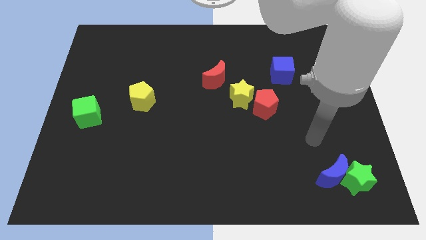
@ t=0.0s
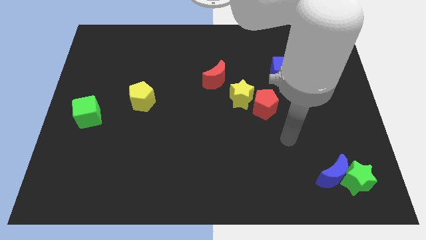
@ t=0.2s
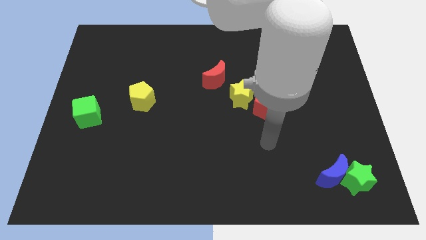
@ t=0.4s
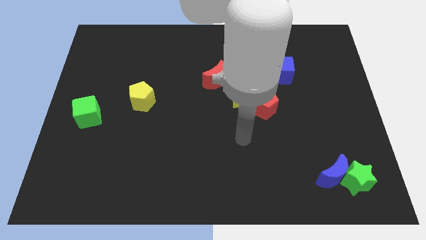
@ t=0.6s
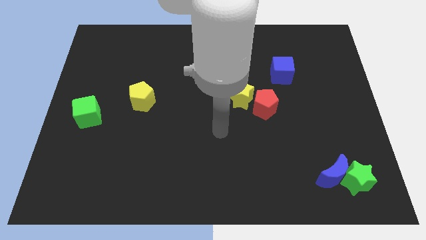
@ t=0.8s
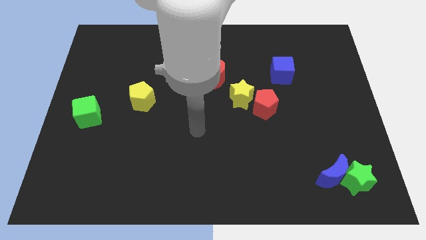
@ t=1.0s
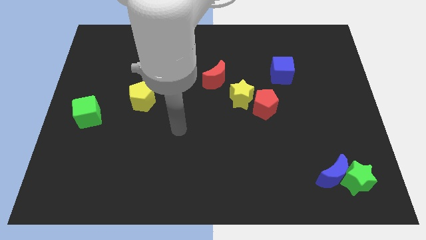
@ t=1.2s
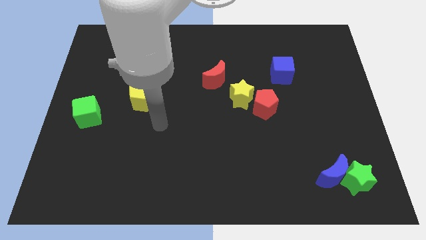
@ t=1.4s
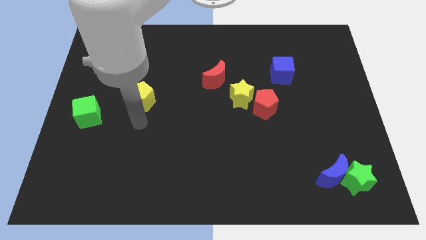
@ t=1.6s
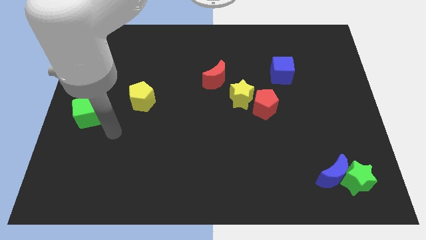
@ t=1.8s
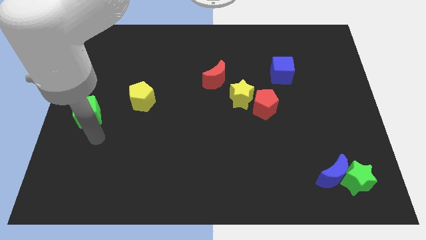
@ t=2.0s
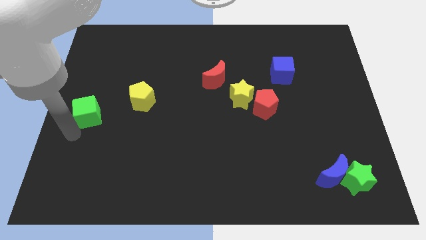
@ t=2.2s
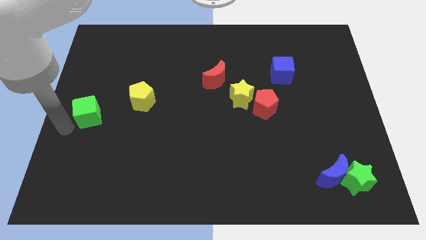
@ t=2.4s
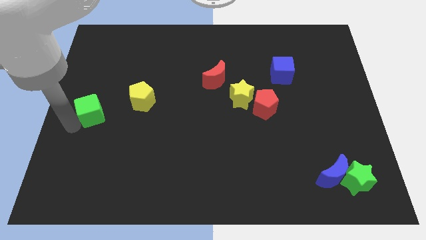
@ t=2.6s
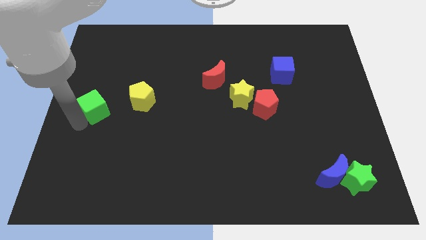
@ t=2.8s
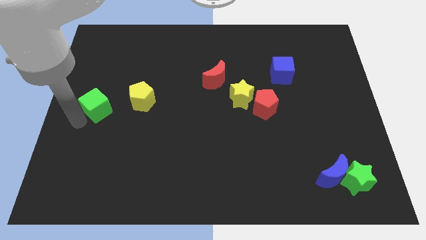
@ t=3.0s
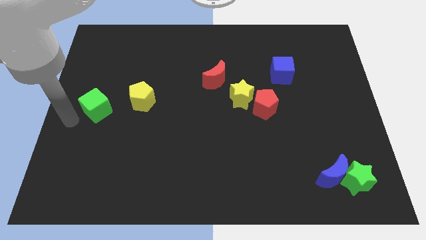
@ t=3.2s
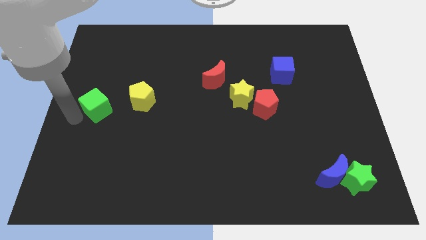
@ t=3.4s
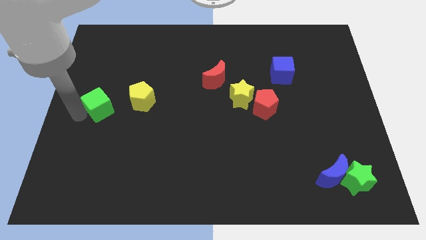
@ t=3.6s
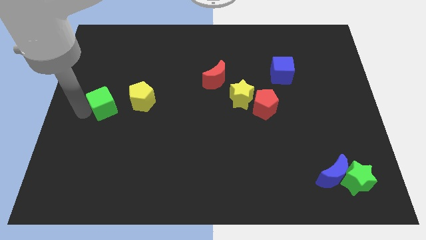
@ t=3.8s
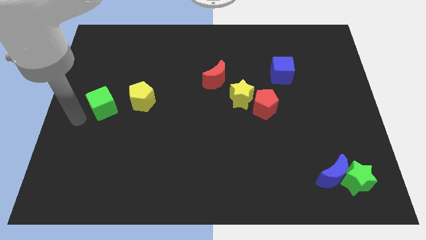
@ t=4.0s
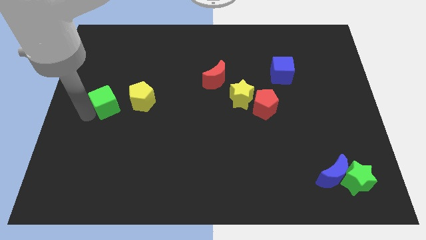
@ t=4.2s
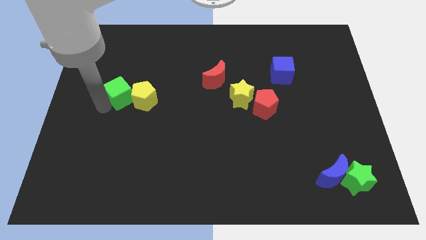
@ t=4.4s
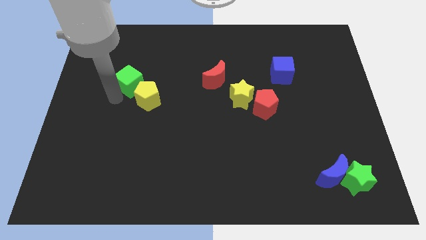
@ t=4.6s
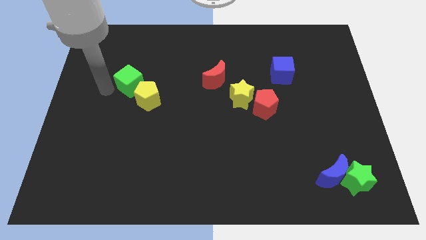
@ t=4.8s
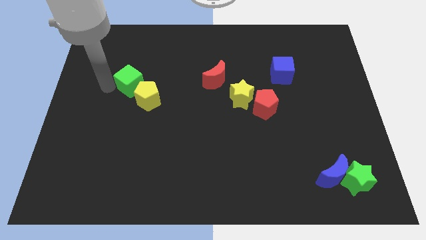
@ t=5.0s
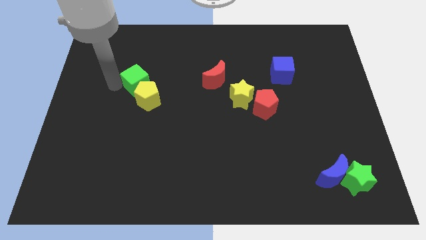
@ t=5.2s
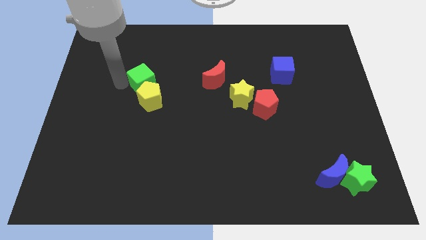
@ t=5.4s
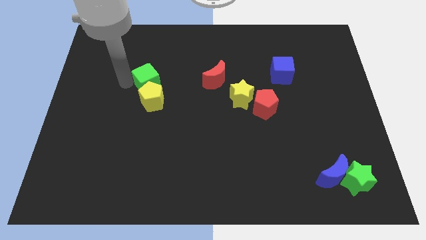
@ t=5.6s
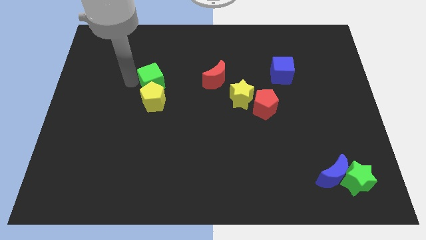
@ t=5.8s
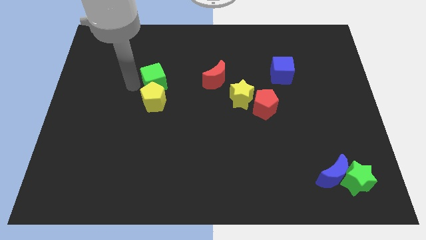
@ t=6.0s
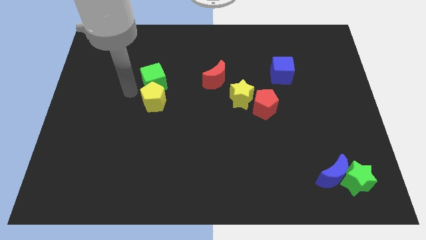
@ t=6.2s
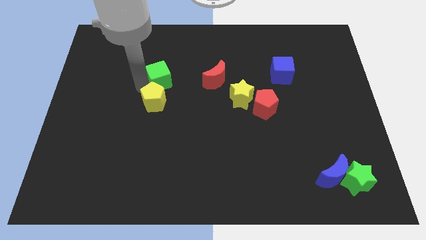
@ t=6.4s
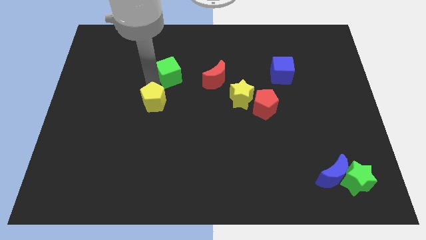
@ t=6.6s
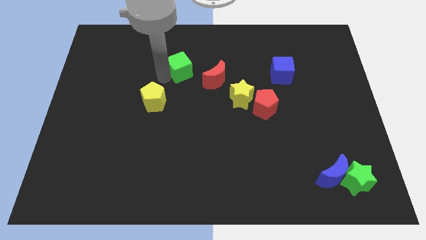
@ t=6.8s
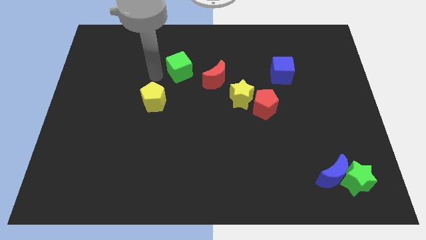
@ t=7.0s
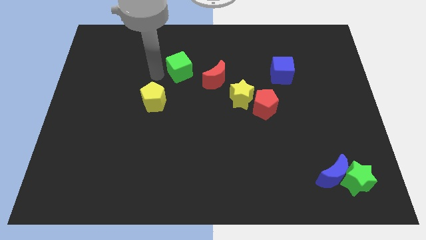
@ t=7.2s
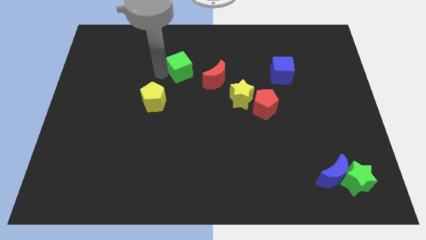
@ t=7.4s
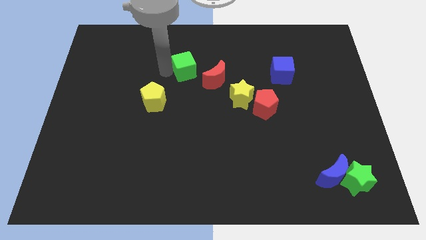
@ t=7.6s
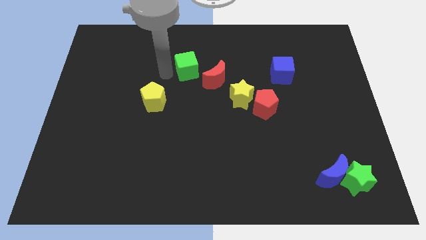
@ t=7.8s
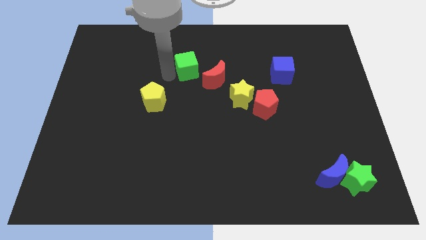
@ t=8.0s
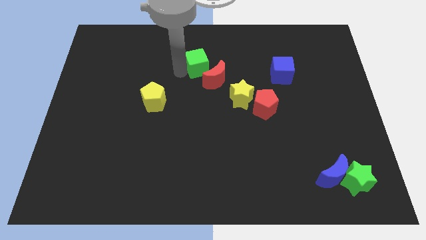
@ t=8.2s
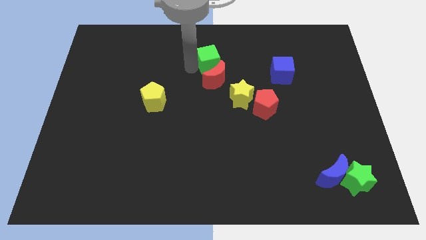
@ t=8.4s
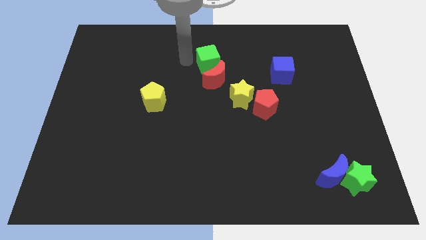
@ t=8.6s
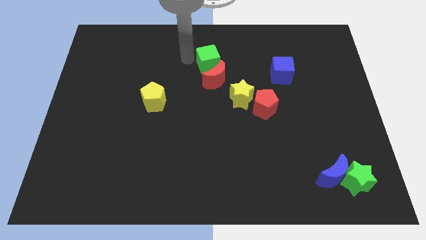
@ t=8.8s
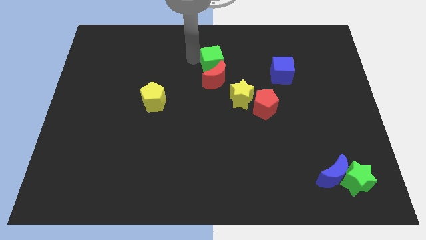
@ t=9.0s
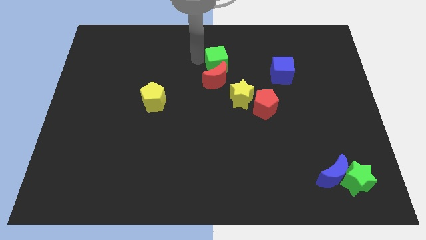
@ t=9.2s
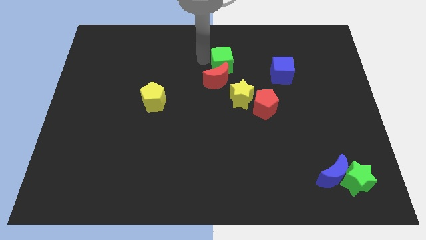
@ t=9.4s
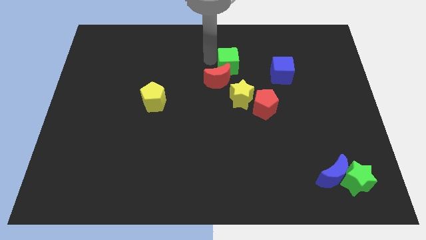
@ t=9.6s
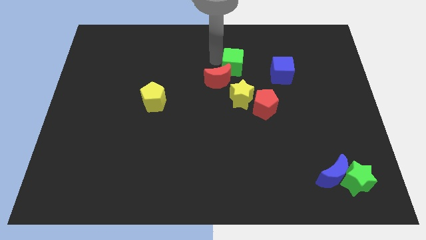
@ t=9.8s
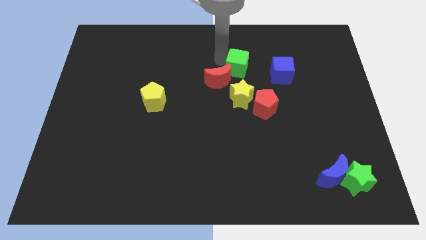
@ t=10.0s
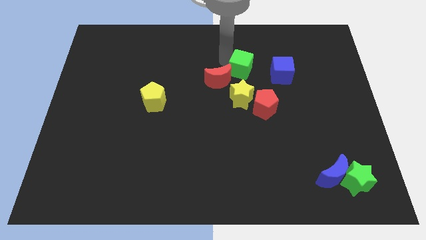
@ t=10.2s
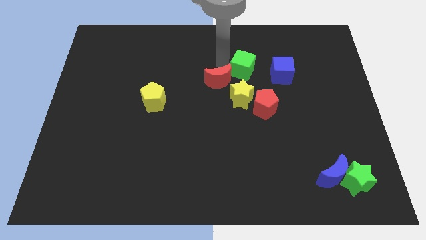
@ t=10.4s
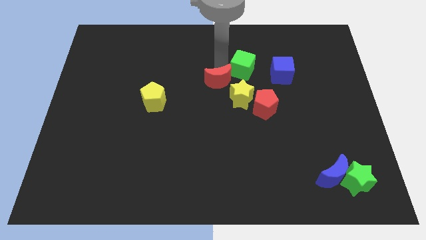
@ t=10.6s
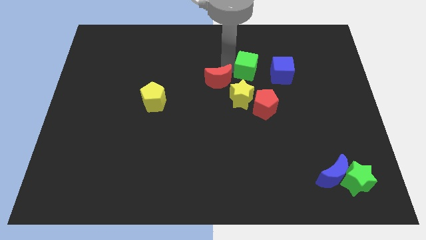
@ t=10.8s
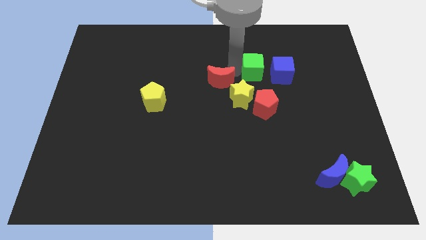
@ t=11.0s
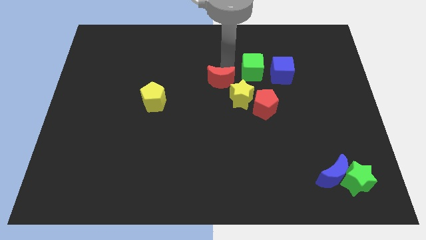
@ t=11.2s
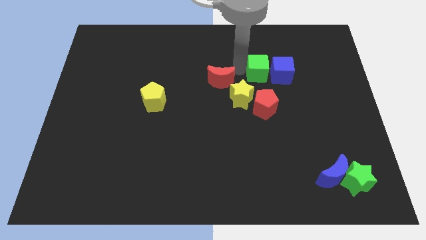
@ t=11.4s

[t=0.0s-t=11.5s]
slide the green cube close to the blue cube

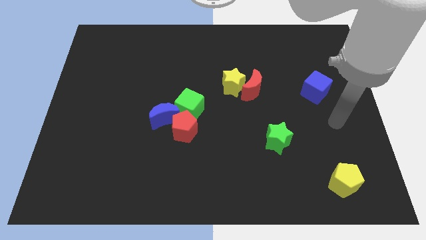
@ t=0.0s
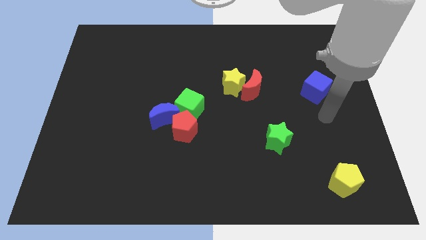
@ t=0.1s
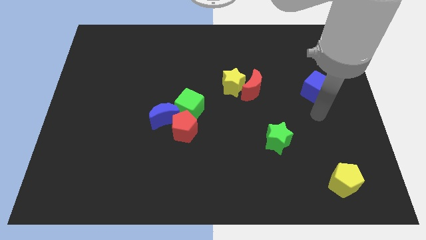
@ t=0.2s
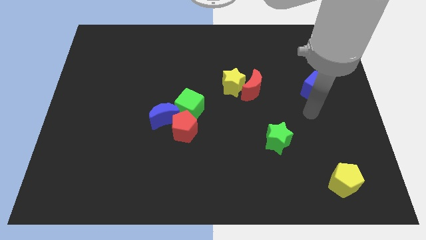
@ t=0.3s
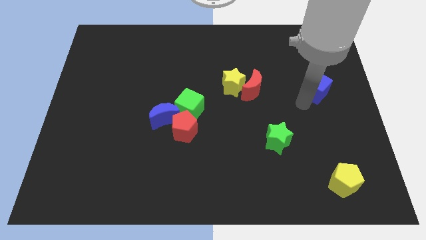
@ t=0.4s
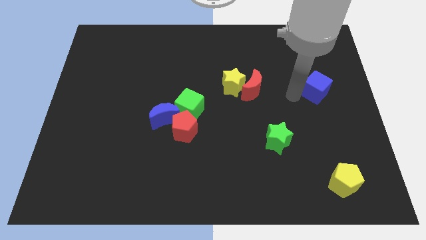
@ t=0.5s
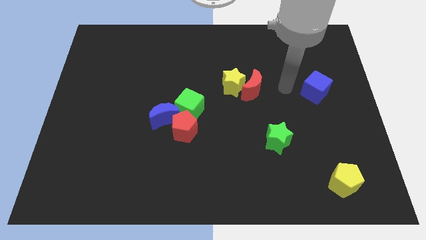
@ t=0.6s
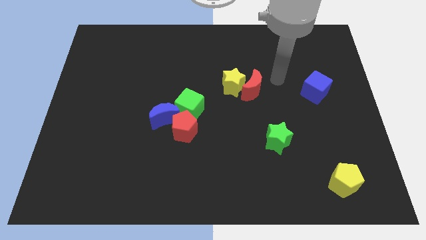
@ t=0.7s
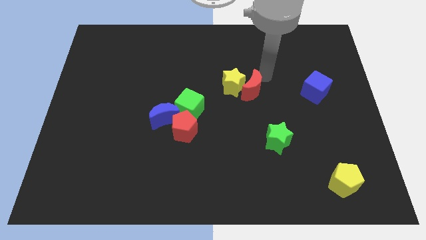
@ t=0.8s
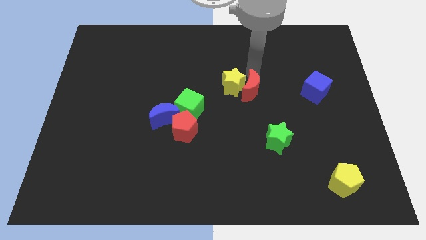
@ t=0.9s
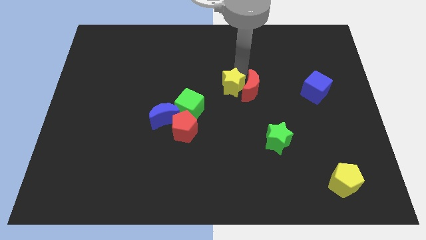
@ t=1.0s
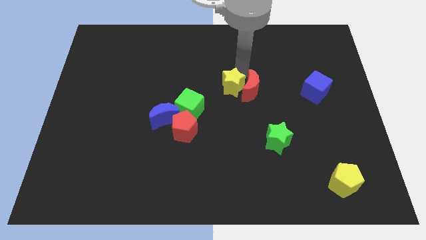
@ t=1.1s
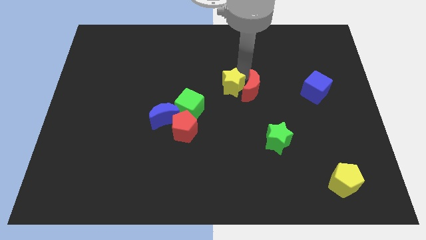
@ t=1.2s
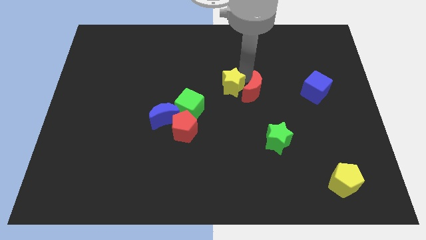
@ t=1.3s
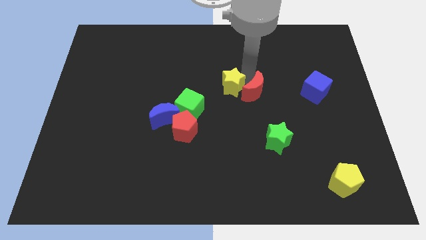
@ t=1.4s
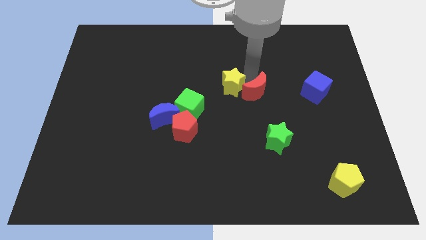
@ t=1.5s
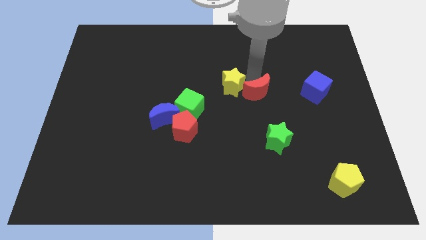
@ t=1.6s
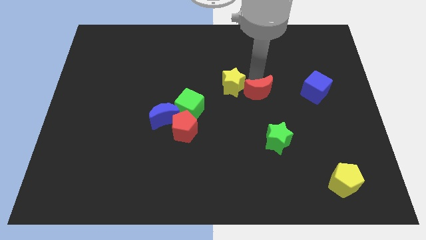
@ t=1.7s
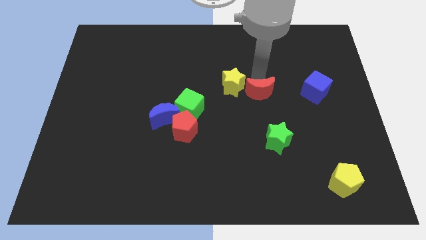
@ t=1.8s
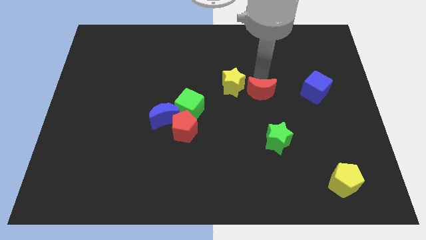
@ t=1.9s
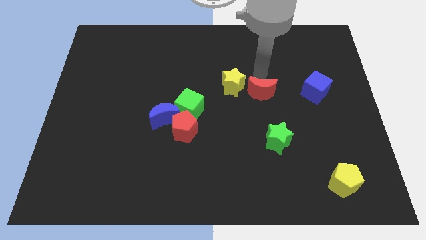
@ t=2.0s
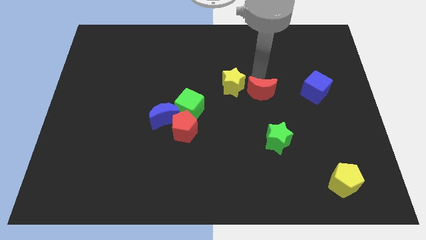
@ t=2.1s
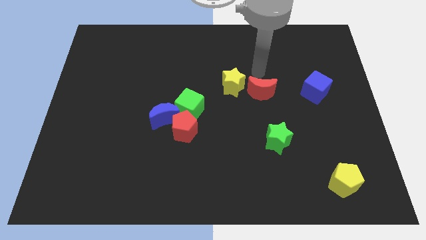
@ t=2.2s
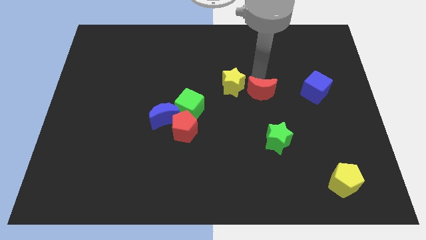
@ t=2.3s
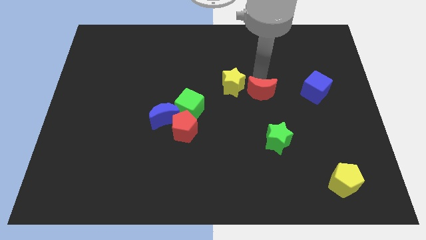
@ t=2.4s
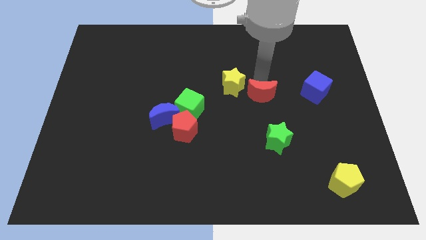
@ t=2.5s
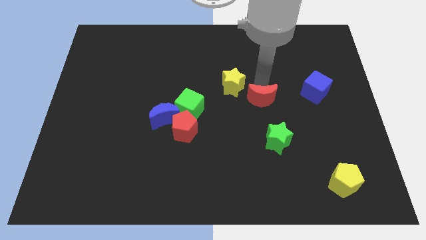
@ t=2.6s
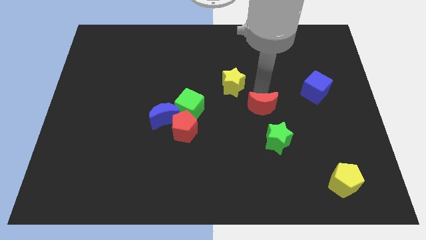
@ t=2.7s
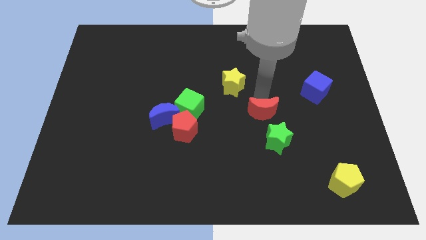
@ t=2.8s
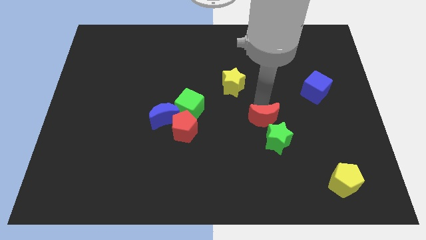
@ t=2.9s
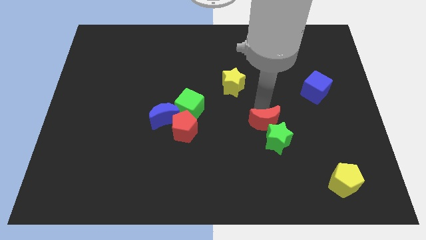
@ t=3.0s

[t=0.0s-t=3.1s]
move the red moon to the green star
